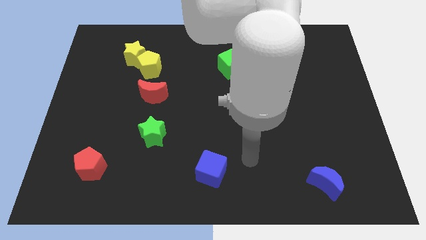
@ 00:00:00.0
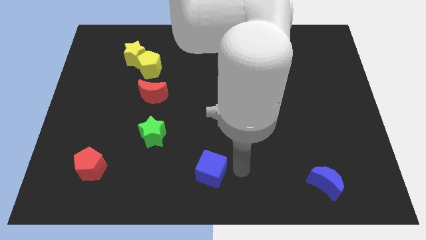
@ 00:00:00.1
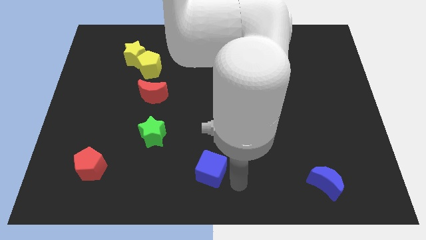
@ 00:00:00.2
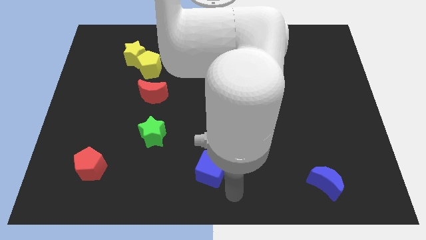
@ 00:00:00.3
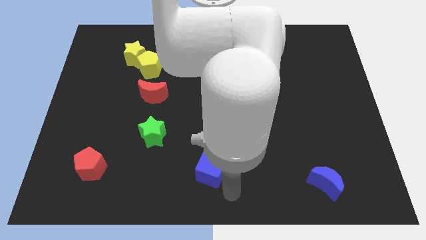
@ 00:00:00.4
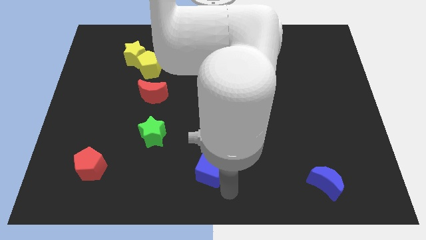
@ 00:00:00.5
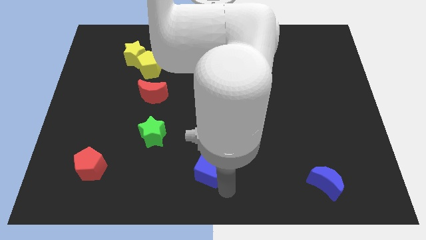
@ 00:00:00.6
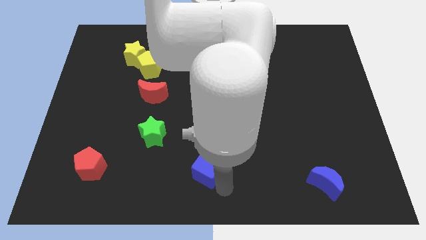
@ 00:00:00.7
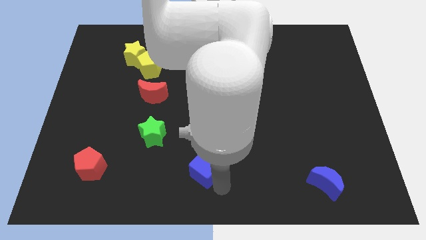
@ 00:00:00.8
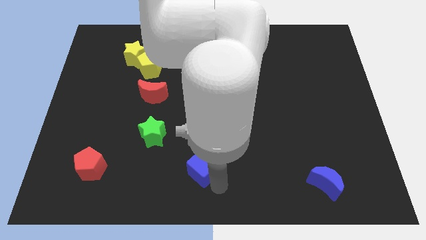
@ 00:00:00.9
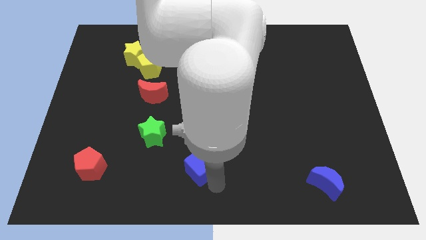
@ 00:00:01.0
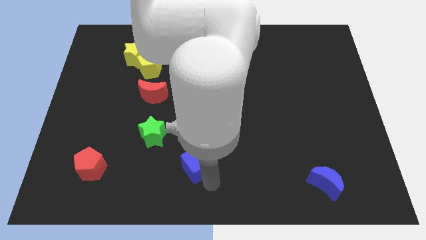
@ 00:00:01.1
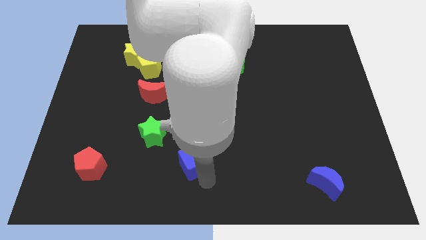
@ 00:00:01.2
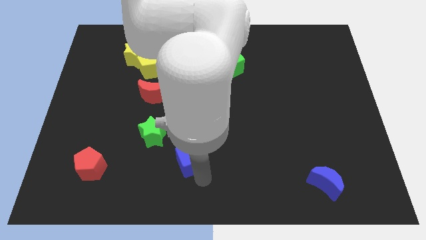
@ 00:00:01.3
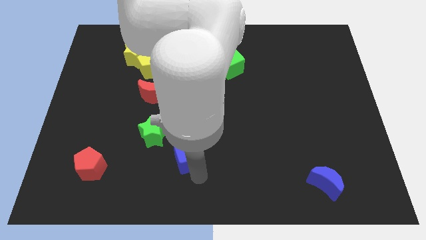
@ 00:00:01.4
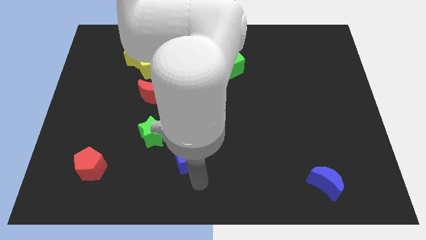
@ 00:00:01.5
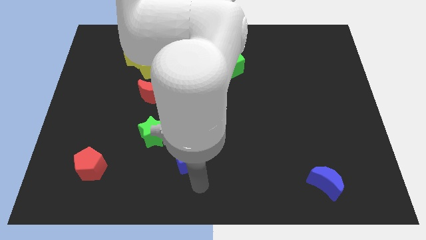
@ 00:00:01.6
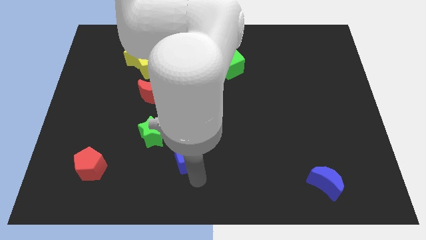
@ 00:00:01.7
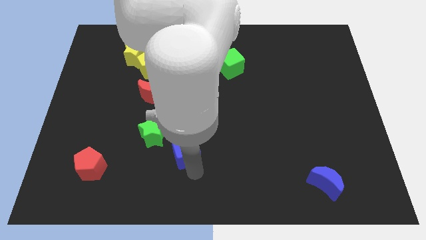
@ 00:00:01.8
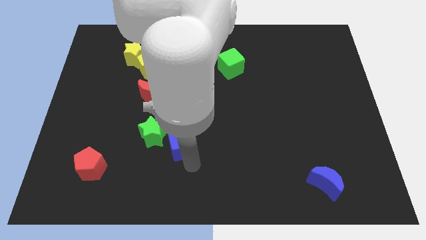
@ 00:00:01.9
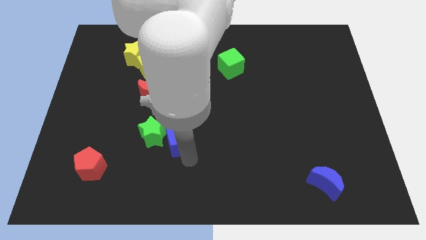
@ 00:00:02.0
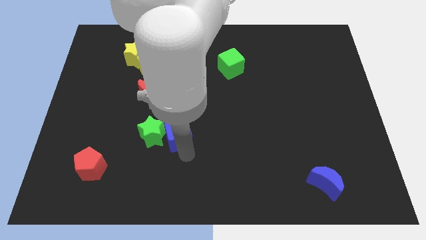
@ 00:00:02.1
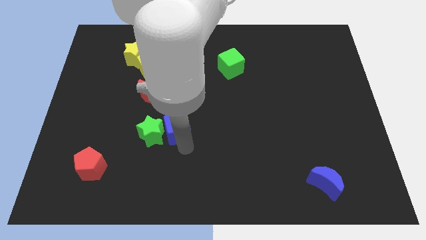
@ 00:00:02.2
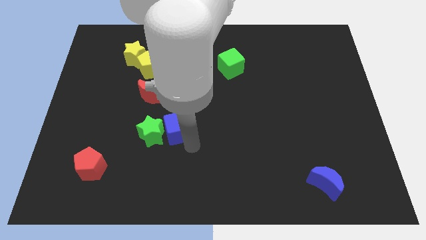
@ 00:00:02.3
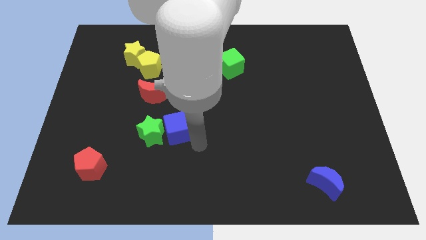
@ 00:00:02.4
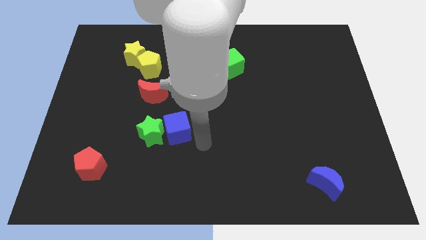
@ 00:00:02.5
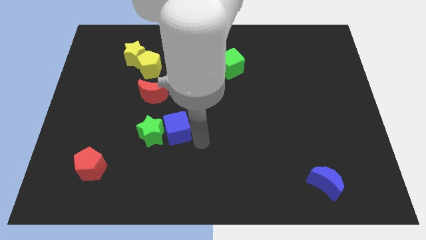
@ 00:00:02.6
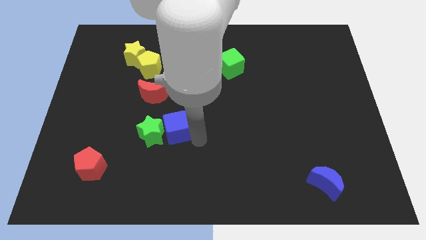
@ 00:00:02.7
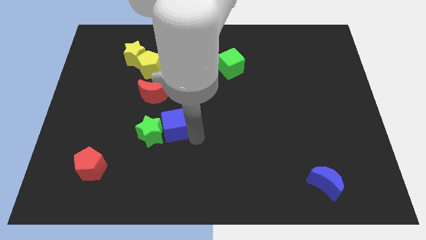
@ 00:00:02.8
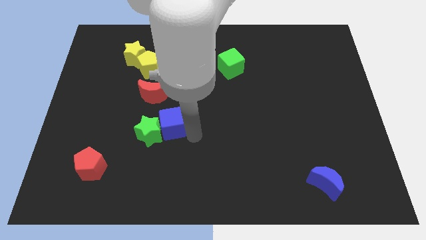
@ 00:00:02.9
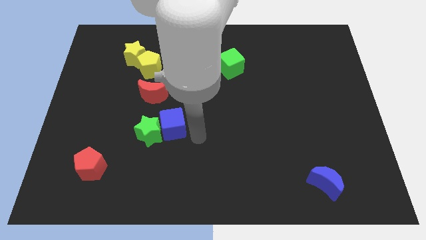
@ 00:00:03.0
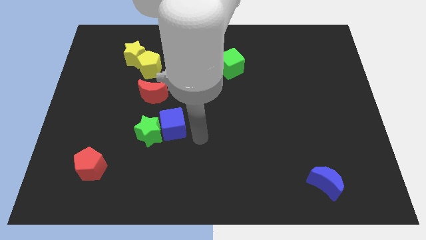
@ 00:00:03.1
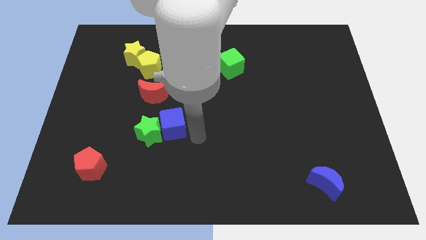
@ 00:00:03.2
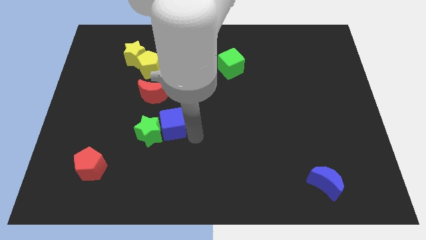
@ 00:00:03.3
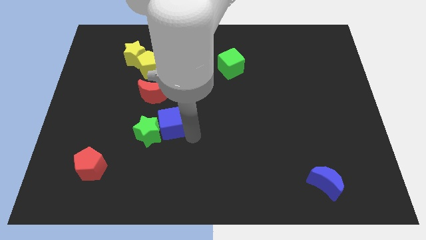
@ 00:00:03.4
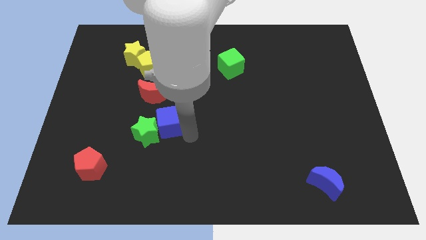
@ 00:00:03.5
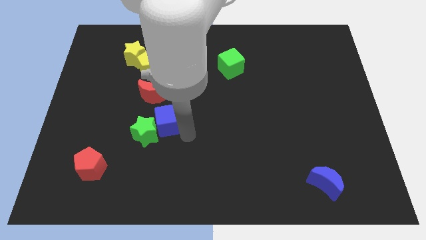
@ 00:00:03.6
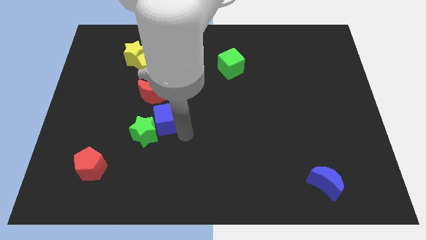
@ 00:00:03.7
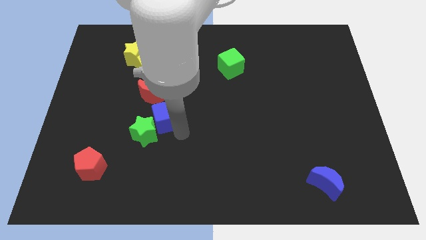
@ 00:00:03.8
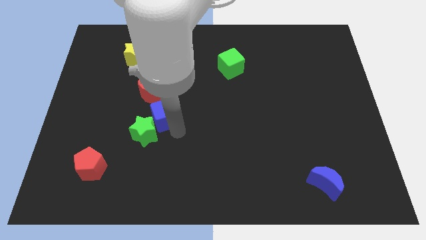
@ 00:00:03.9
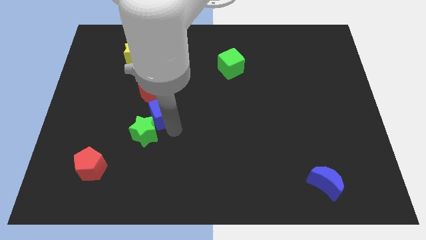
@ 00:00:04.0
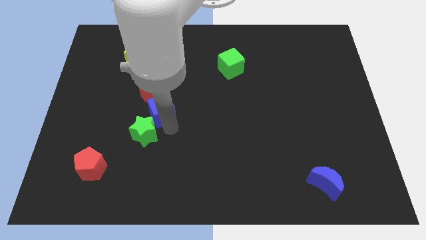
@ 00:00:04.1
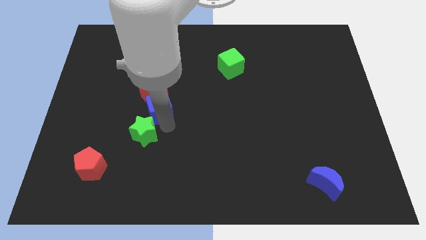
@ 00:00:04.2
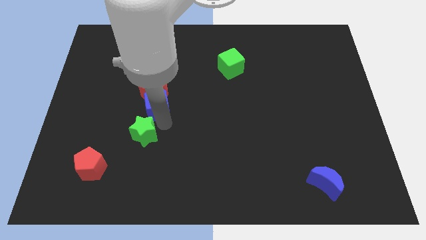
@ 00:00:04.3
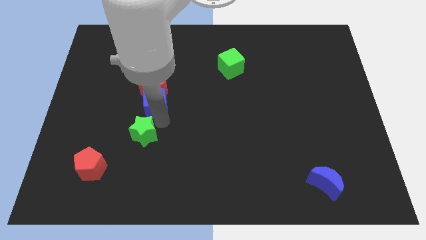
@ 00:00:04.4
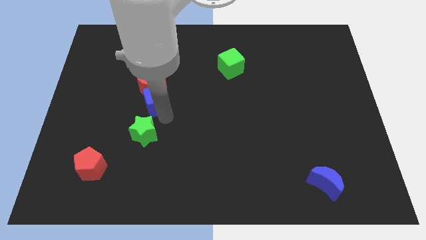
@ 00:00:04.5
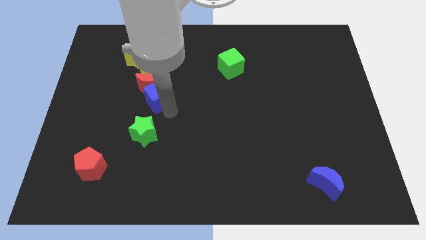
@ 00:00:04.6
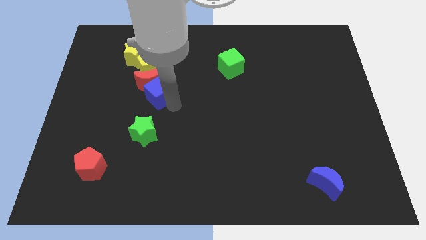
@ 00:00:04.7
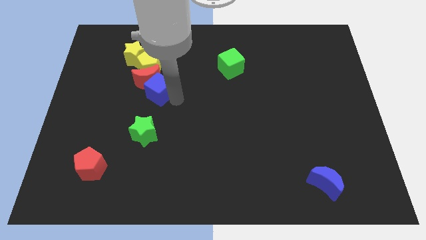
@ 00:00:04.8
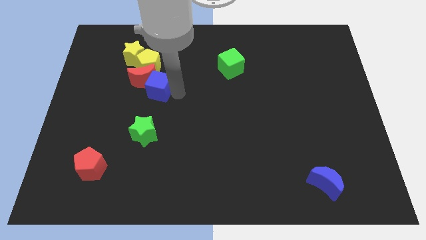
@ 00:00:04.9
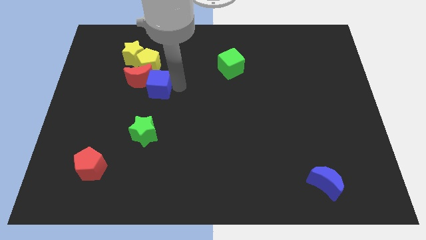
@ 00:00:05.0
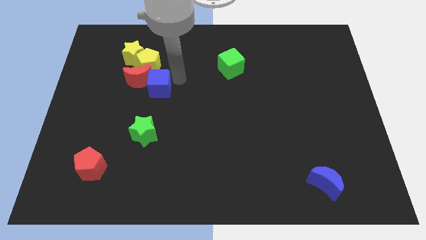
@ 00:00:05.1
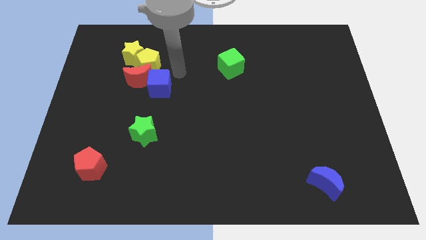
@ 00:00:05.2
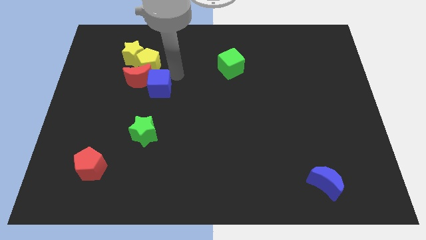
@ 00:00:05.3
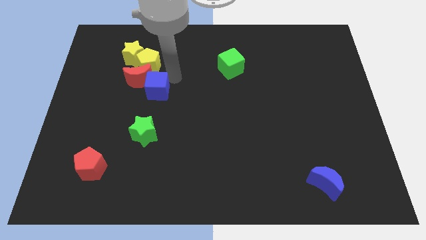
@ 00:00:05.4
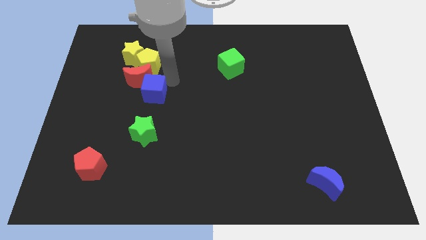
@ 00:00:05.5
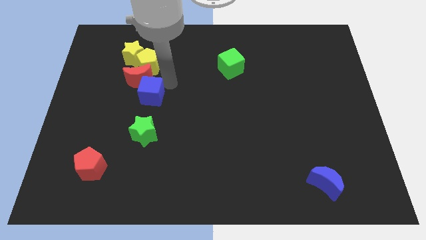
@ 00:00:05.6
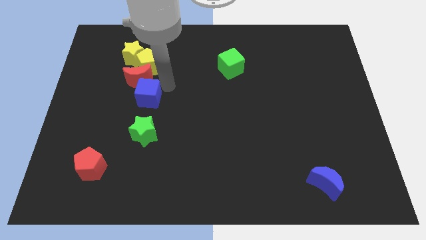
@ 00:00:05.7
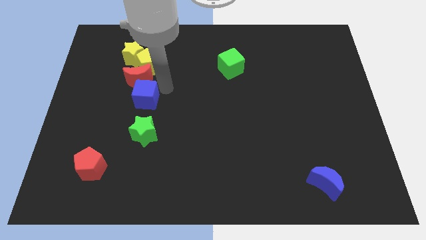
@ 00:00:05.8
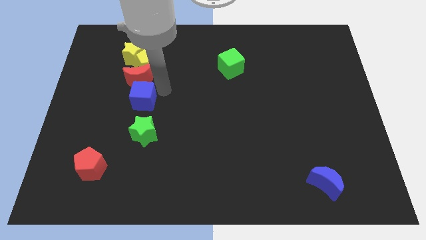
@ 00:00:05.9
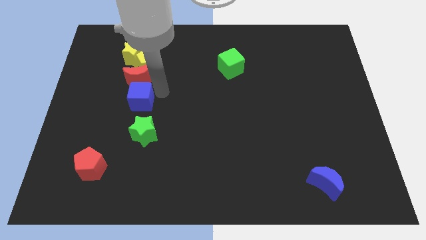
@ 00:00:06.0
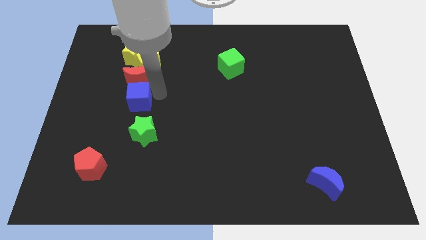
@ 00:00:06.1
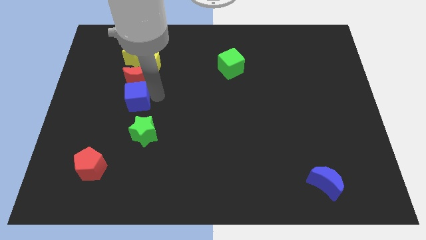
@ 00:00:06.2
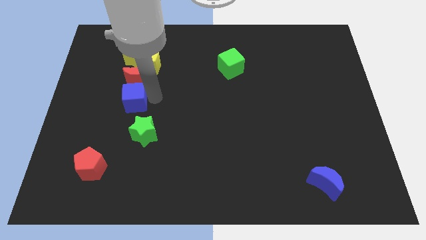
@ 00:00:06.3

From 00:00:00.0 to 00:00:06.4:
slide the blue cube diagonally up and to the left of the green star
